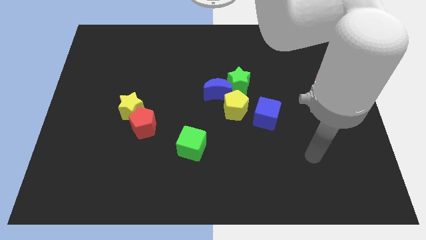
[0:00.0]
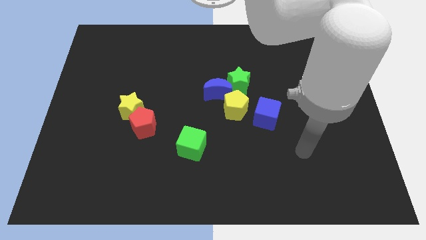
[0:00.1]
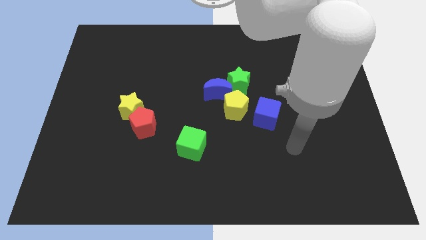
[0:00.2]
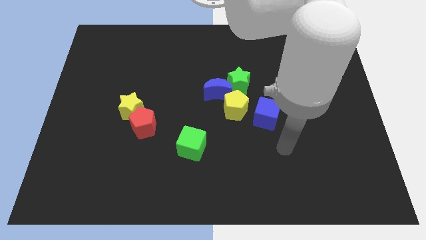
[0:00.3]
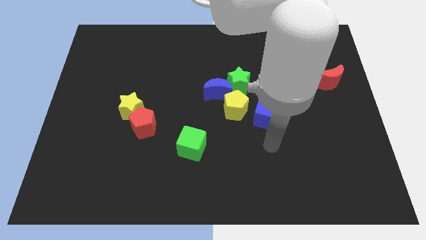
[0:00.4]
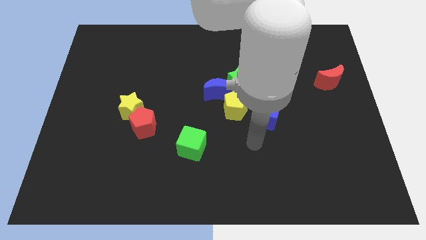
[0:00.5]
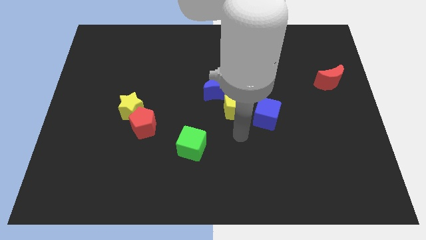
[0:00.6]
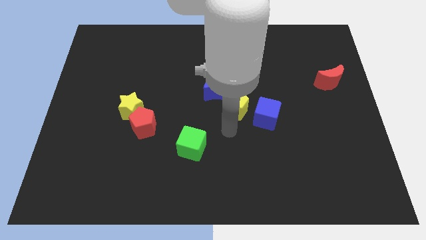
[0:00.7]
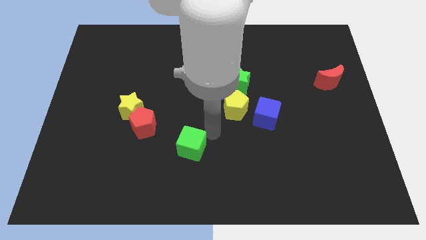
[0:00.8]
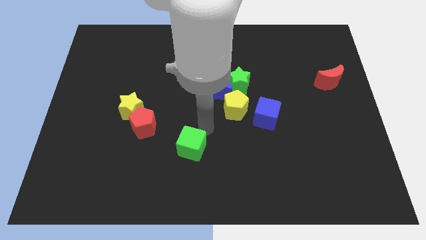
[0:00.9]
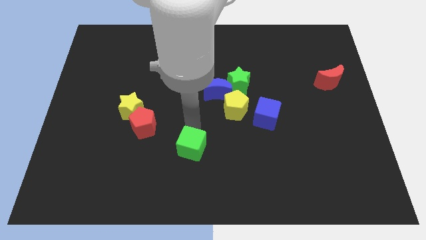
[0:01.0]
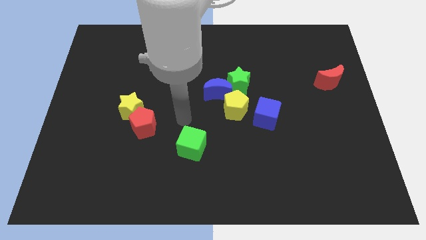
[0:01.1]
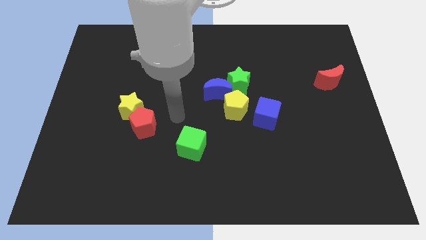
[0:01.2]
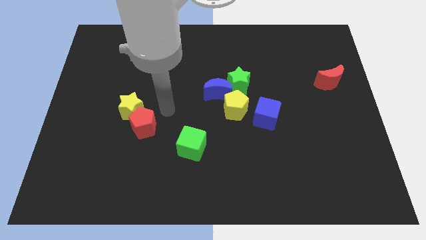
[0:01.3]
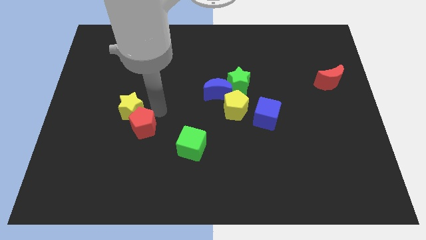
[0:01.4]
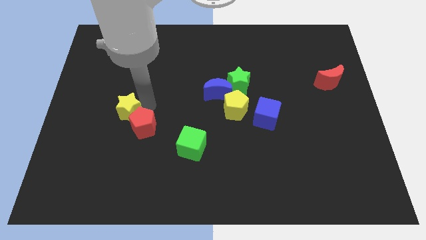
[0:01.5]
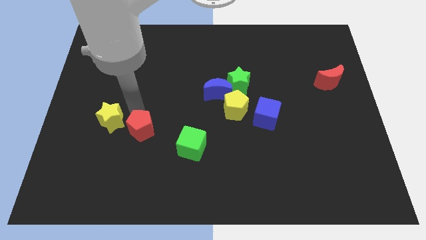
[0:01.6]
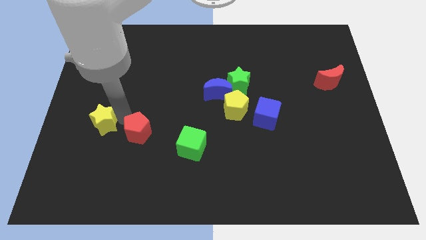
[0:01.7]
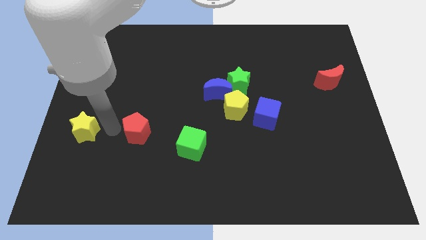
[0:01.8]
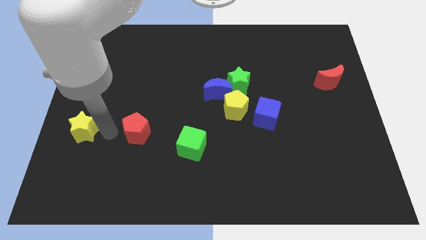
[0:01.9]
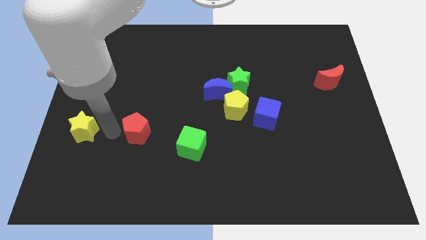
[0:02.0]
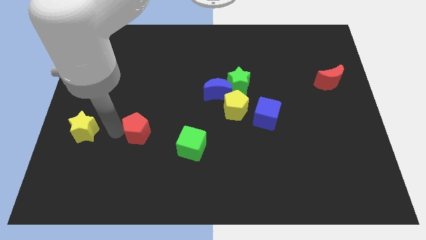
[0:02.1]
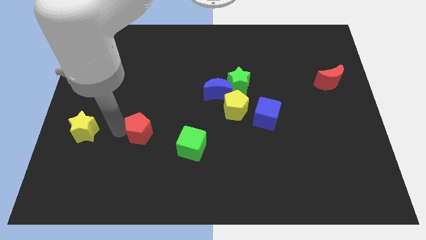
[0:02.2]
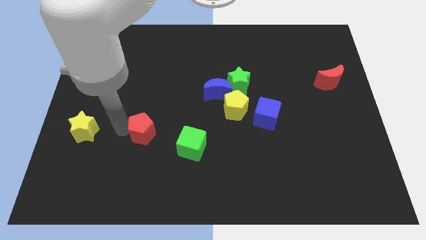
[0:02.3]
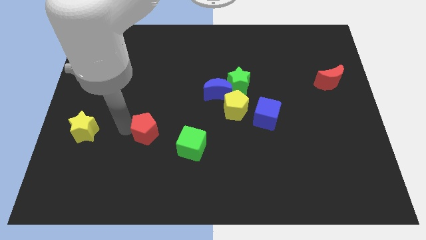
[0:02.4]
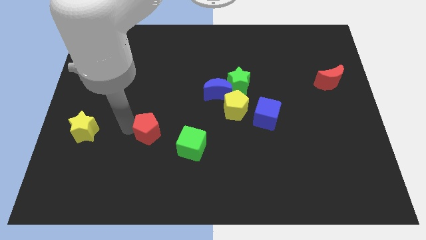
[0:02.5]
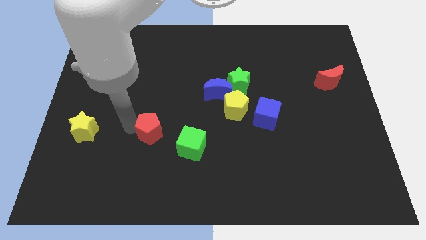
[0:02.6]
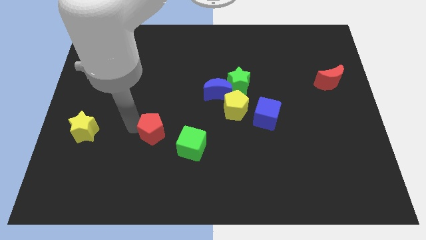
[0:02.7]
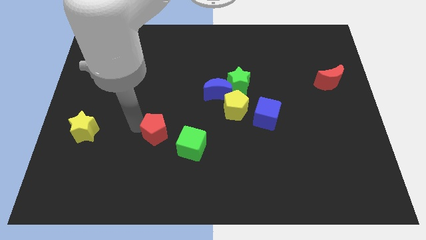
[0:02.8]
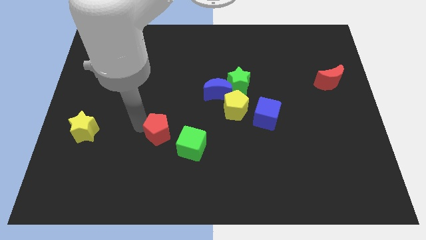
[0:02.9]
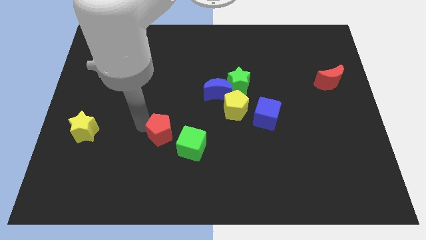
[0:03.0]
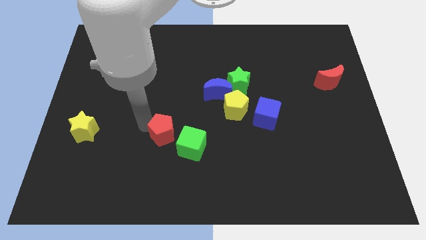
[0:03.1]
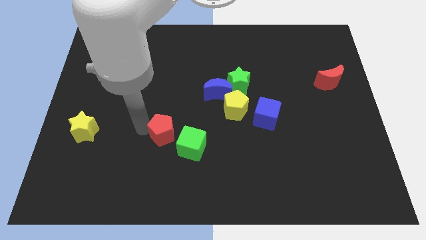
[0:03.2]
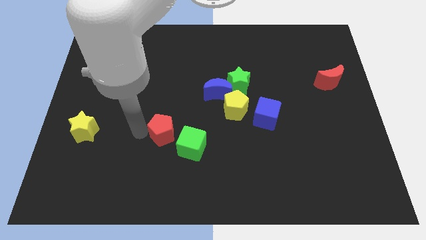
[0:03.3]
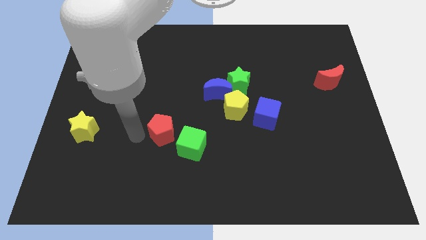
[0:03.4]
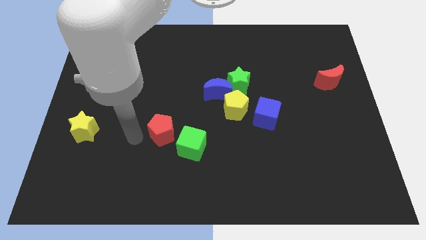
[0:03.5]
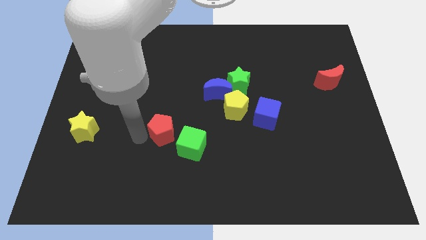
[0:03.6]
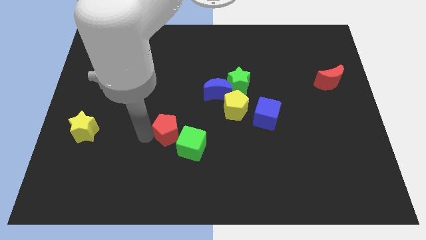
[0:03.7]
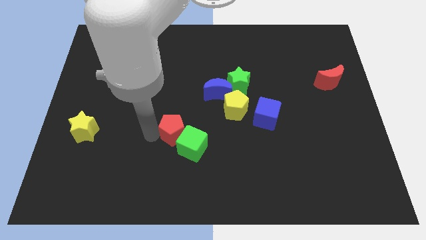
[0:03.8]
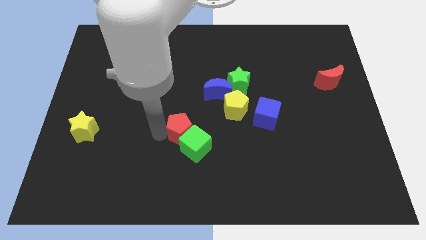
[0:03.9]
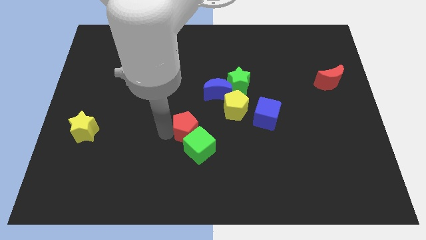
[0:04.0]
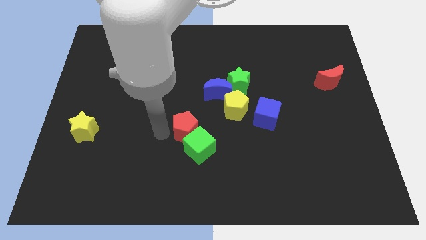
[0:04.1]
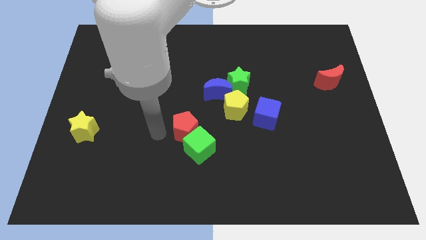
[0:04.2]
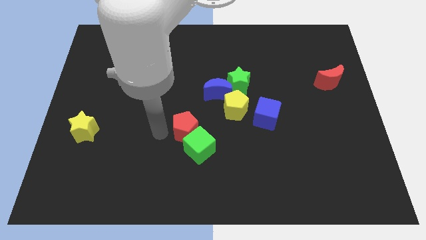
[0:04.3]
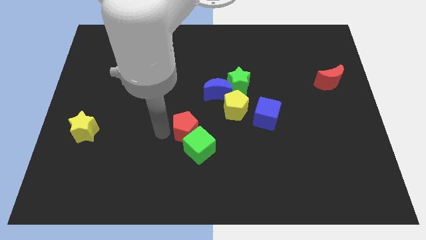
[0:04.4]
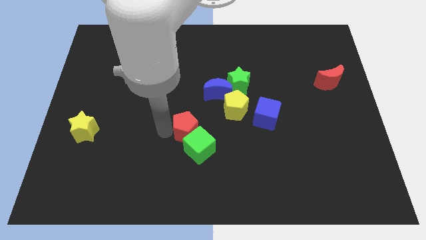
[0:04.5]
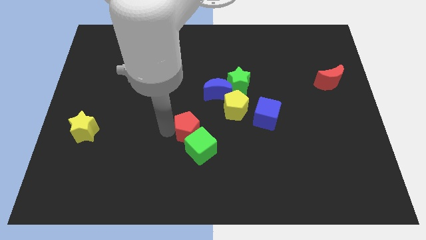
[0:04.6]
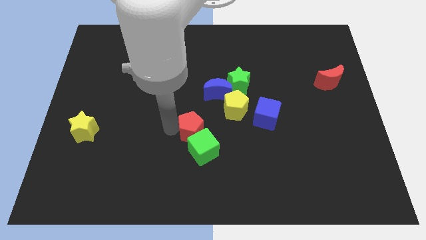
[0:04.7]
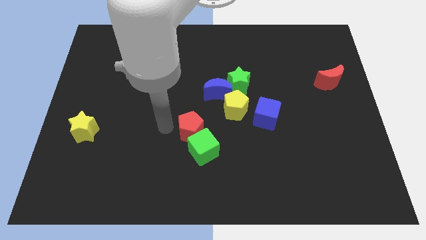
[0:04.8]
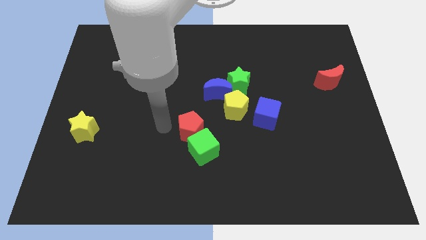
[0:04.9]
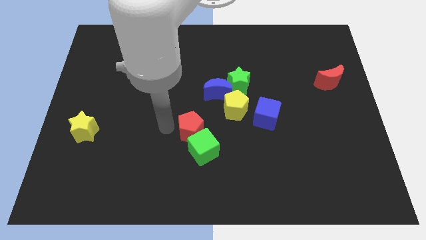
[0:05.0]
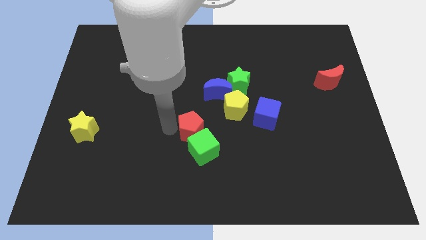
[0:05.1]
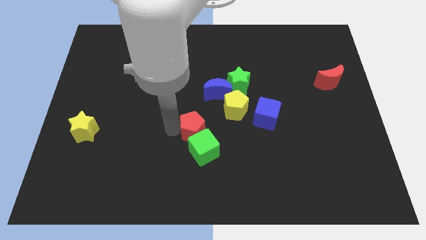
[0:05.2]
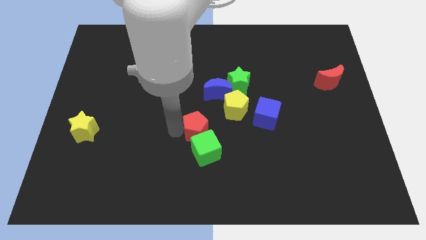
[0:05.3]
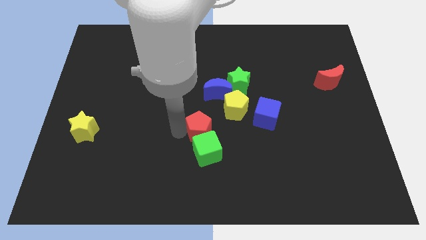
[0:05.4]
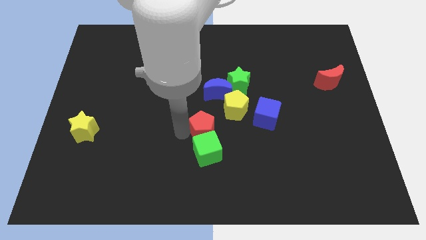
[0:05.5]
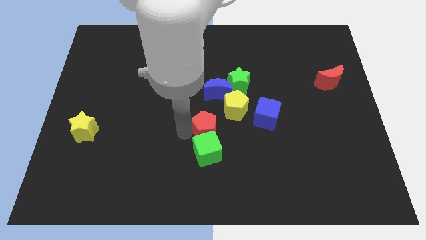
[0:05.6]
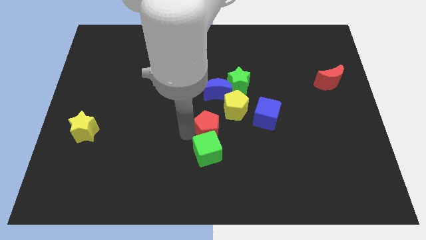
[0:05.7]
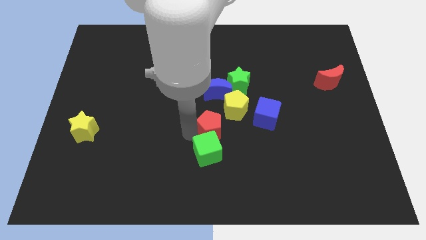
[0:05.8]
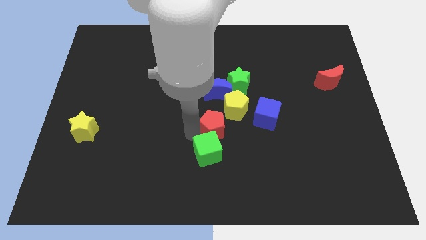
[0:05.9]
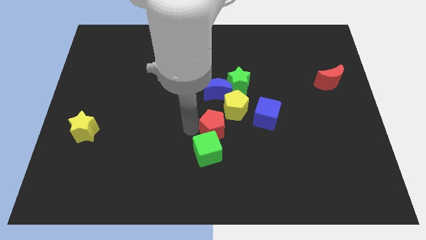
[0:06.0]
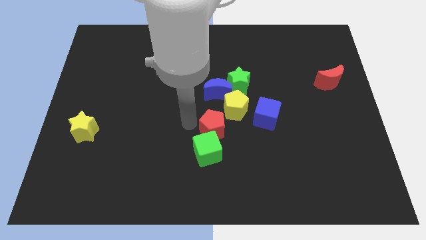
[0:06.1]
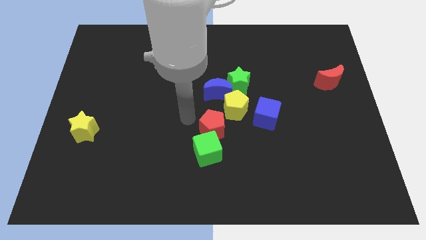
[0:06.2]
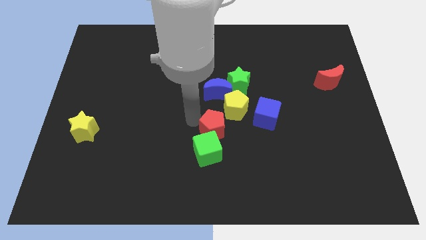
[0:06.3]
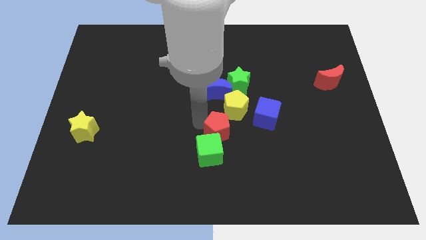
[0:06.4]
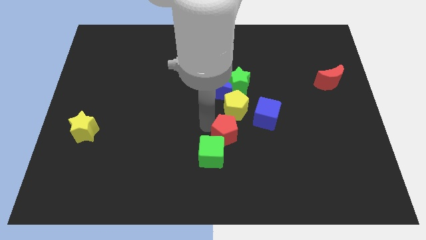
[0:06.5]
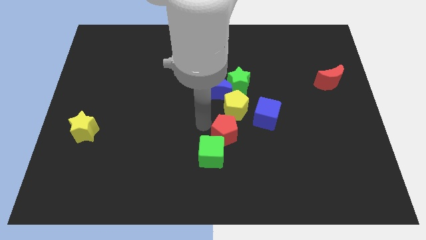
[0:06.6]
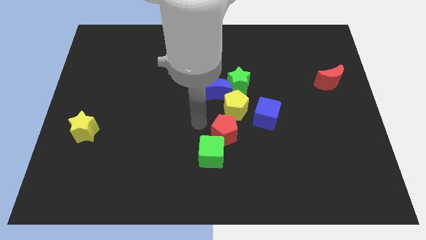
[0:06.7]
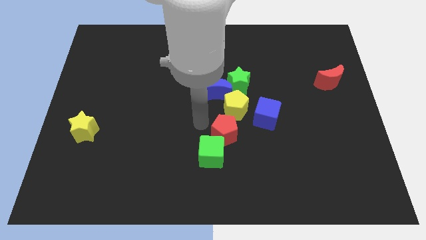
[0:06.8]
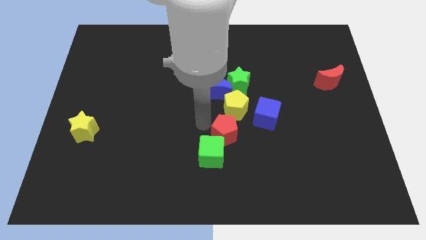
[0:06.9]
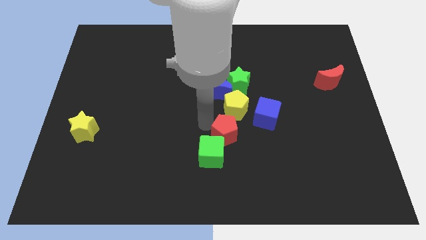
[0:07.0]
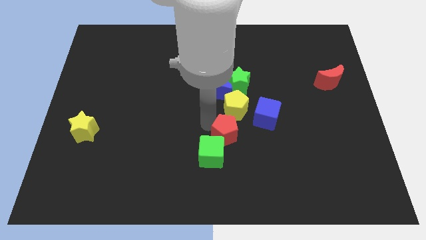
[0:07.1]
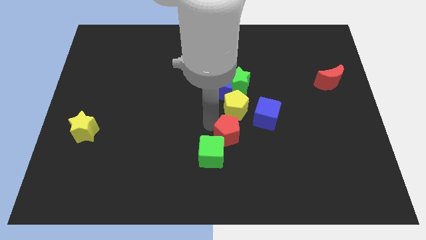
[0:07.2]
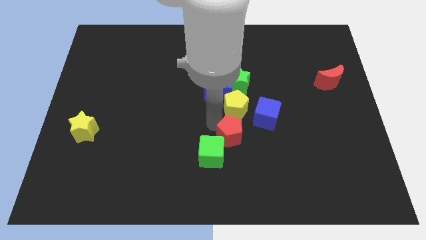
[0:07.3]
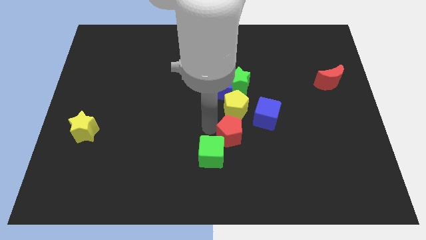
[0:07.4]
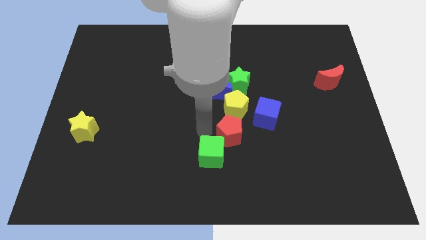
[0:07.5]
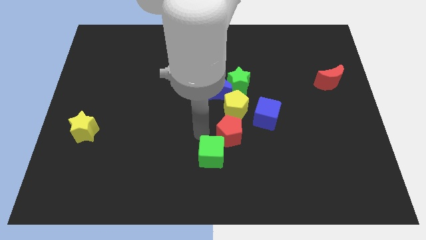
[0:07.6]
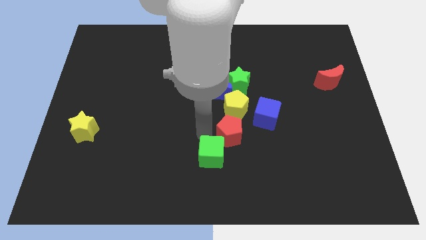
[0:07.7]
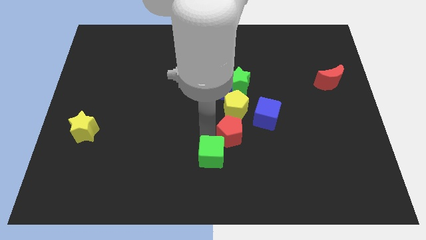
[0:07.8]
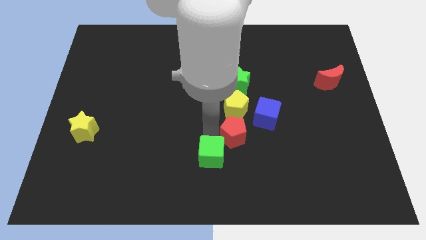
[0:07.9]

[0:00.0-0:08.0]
slide the red pentagon to the right

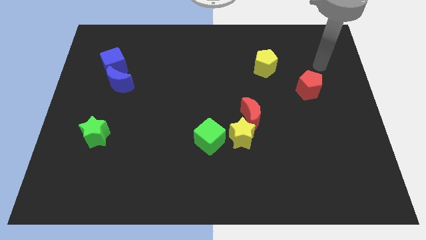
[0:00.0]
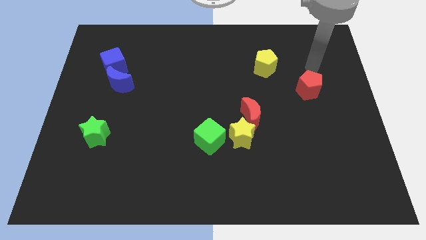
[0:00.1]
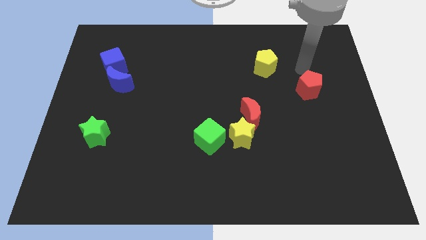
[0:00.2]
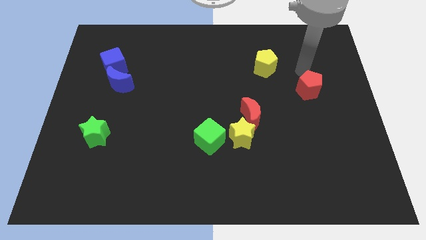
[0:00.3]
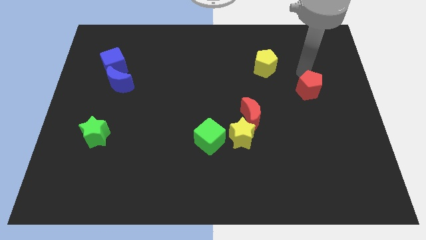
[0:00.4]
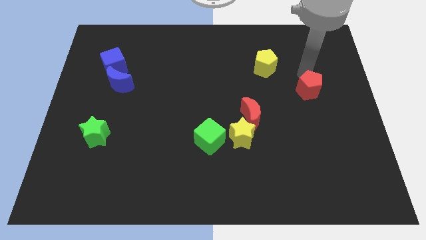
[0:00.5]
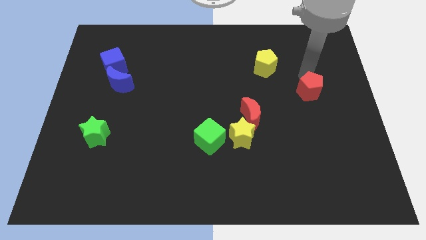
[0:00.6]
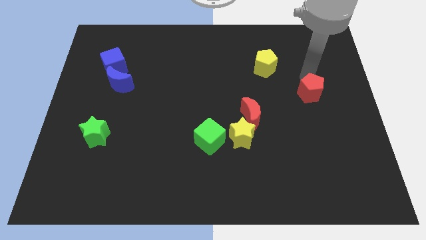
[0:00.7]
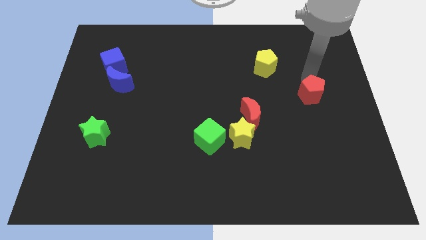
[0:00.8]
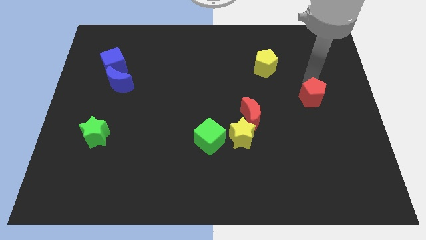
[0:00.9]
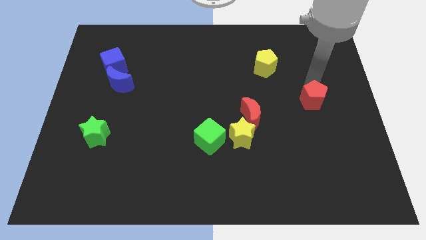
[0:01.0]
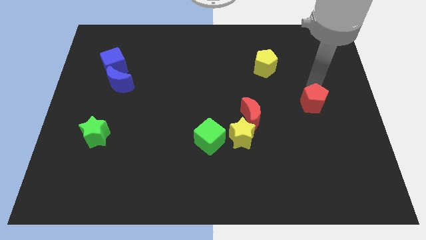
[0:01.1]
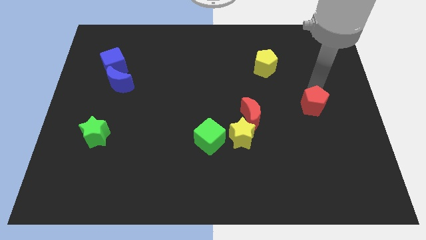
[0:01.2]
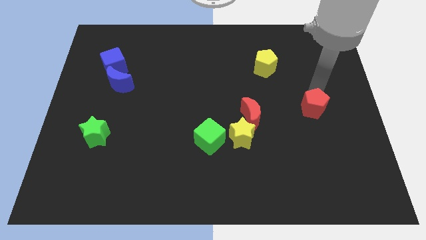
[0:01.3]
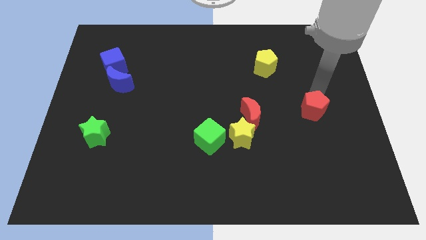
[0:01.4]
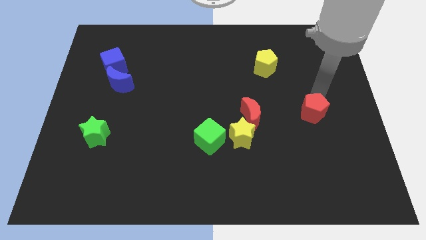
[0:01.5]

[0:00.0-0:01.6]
move the red pentagon slightly downwards
